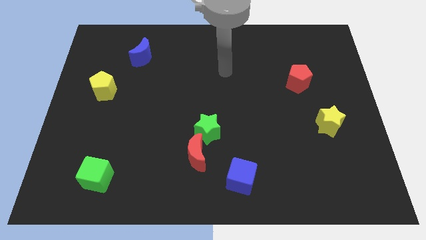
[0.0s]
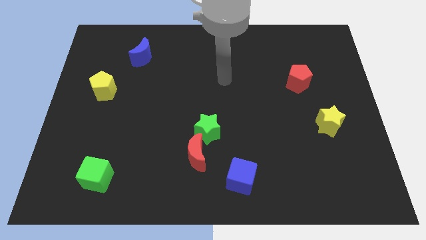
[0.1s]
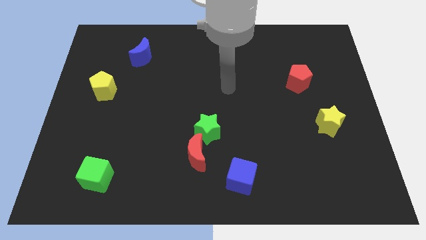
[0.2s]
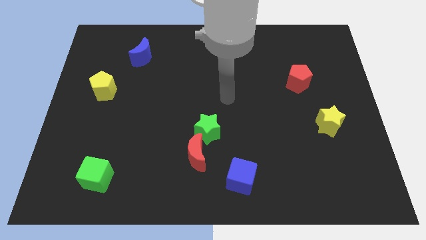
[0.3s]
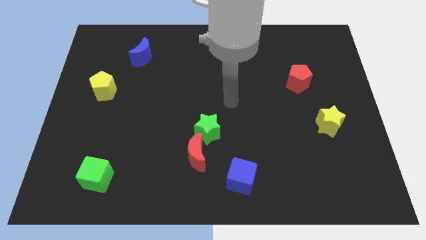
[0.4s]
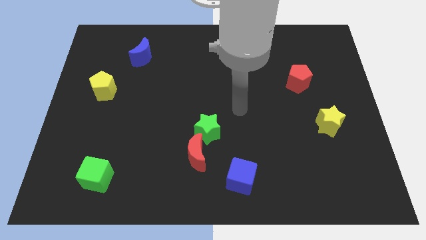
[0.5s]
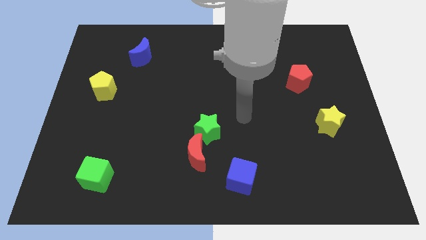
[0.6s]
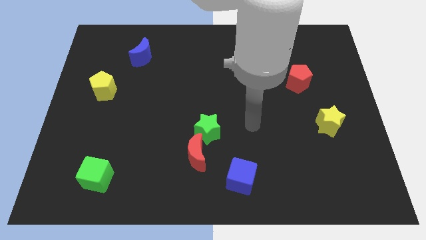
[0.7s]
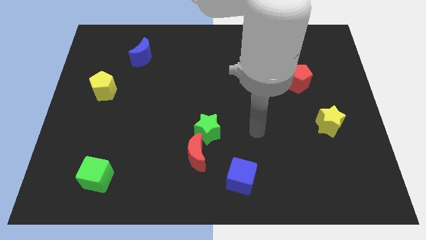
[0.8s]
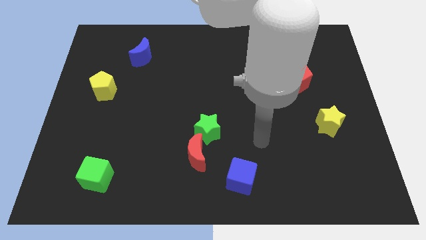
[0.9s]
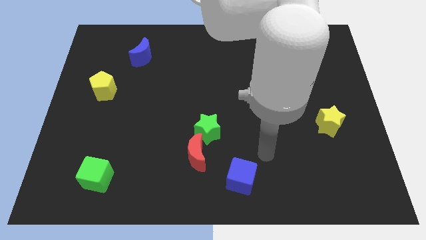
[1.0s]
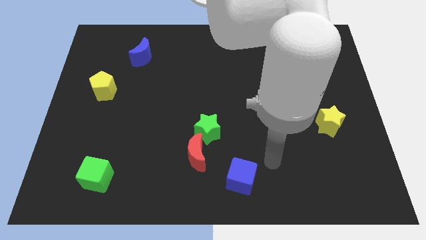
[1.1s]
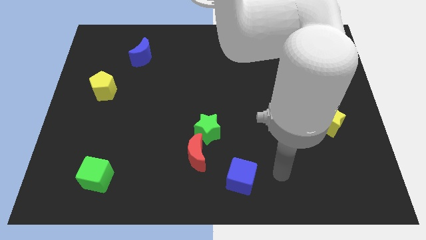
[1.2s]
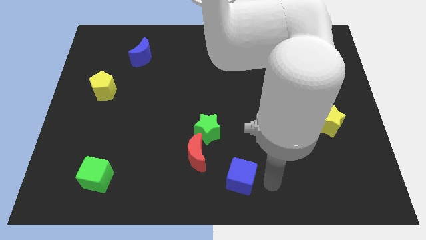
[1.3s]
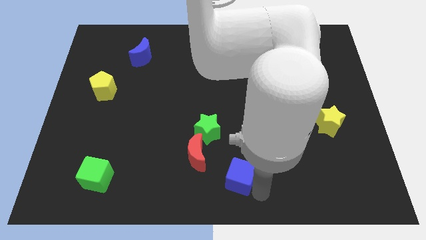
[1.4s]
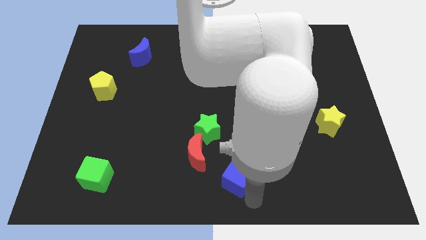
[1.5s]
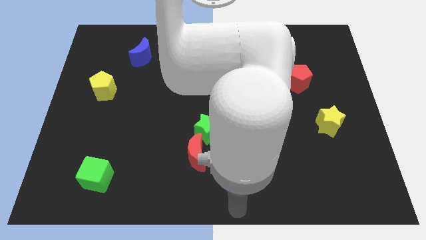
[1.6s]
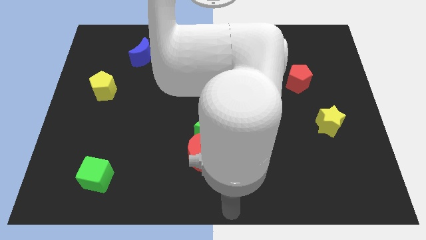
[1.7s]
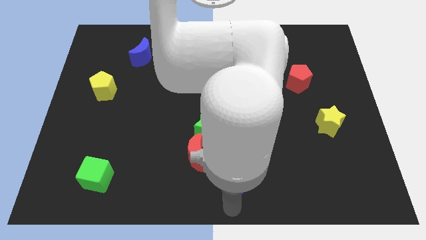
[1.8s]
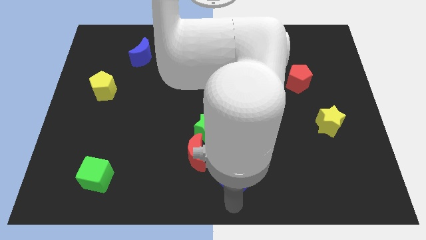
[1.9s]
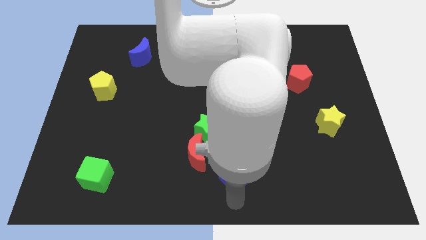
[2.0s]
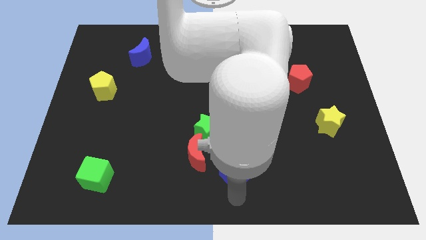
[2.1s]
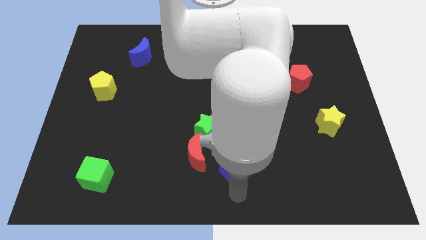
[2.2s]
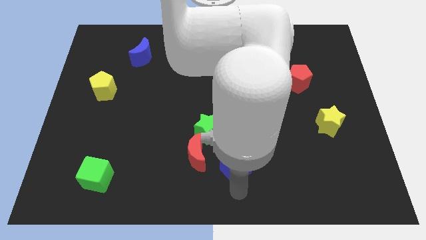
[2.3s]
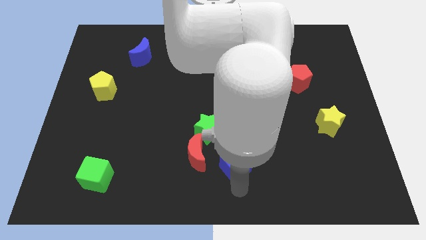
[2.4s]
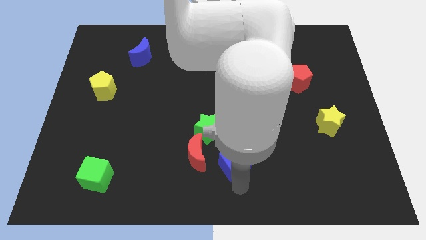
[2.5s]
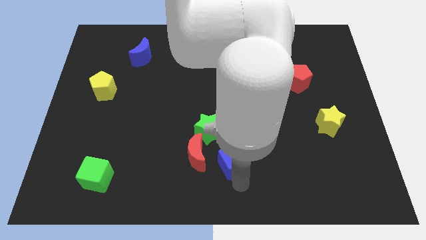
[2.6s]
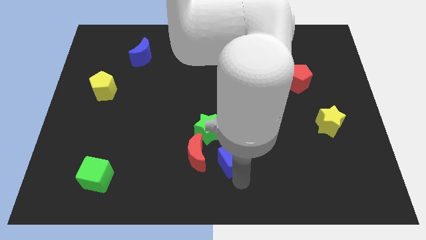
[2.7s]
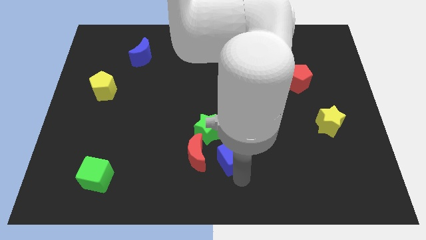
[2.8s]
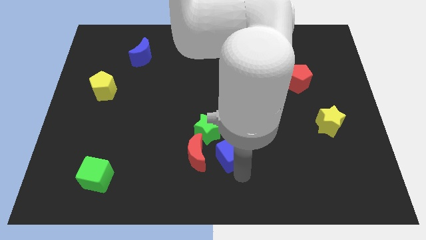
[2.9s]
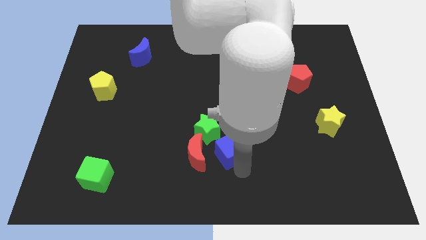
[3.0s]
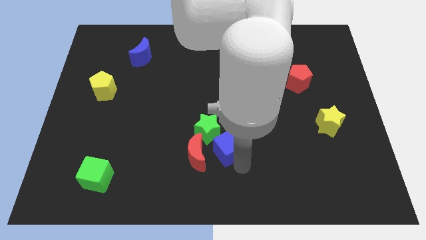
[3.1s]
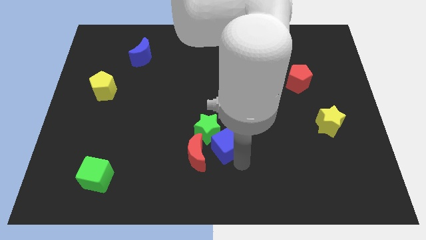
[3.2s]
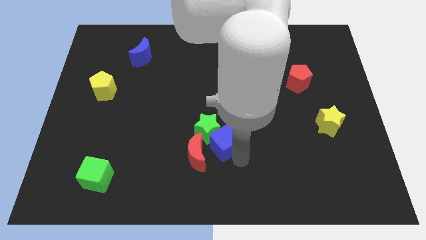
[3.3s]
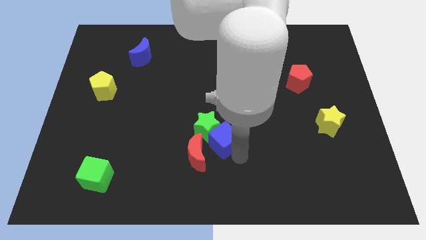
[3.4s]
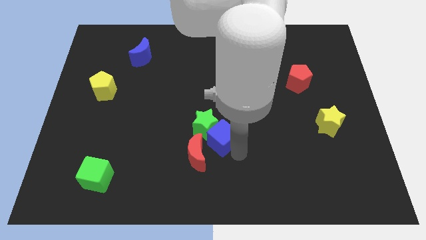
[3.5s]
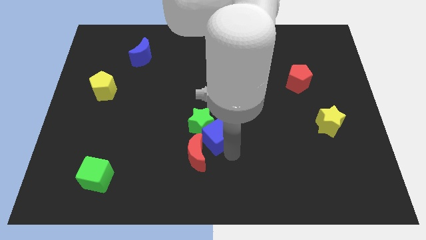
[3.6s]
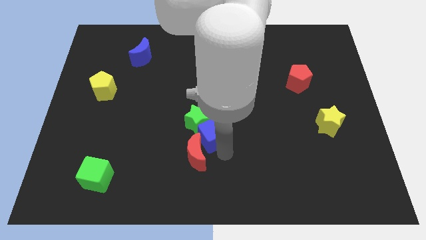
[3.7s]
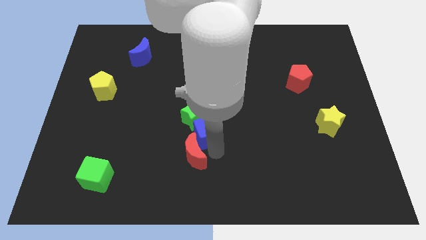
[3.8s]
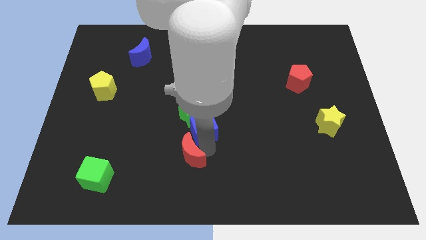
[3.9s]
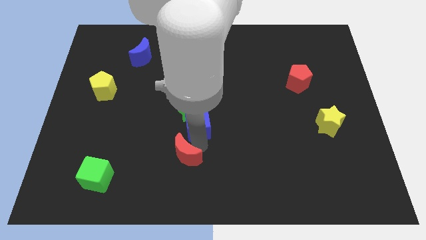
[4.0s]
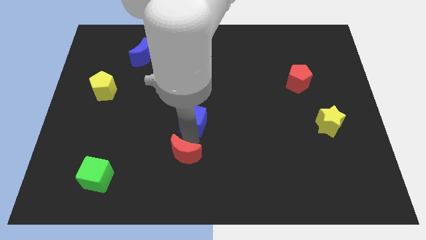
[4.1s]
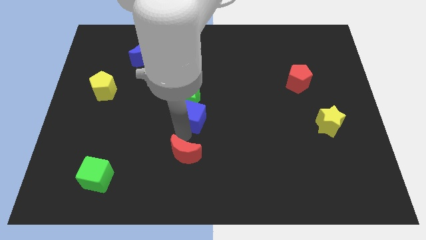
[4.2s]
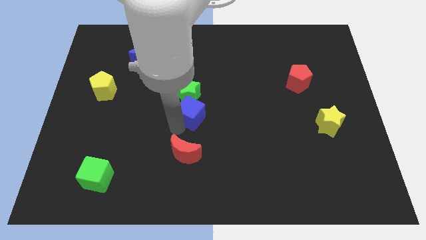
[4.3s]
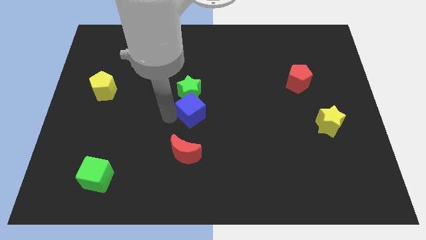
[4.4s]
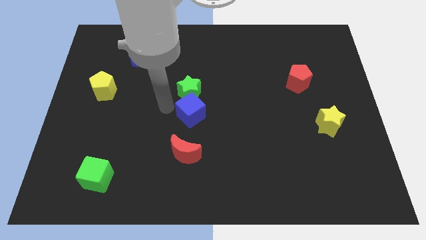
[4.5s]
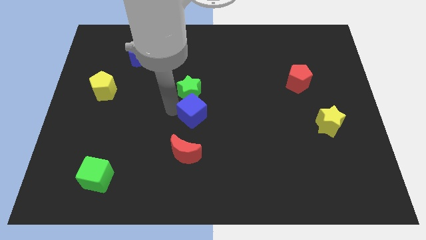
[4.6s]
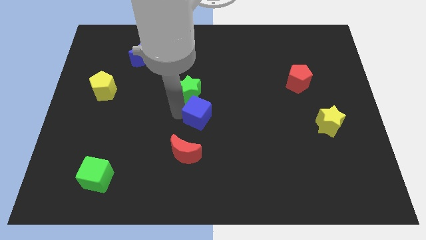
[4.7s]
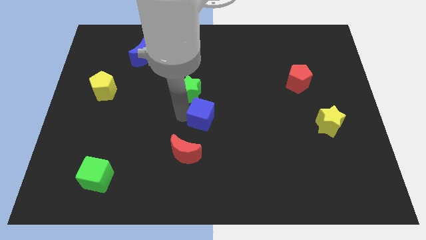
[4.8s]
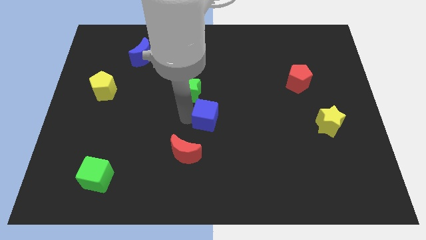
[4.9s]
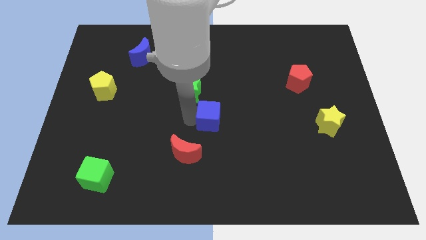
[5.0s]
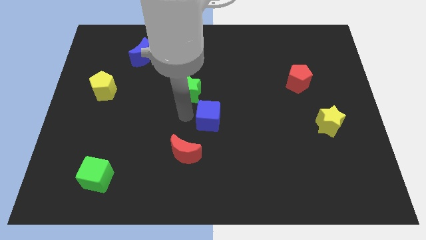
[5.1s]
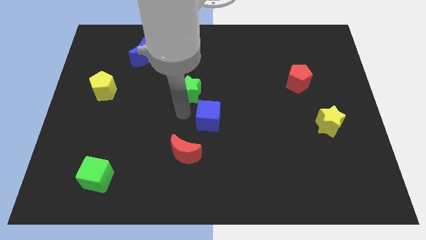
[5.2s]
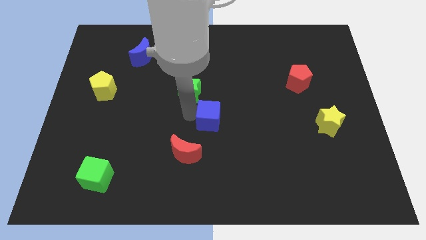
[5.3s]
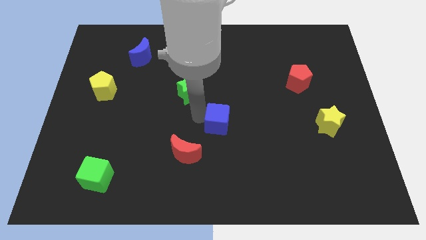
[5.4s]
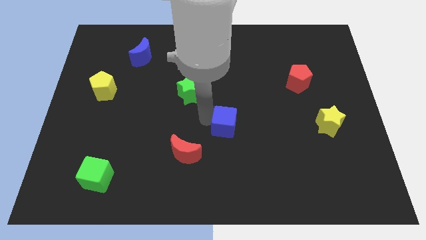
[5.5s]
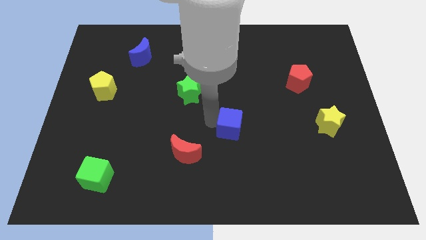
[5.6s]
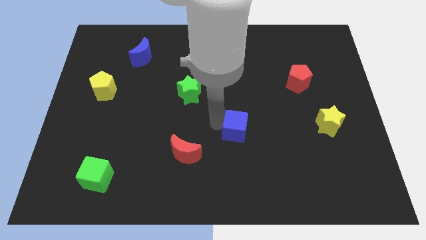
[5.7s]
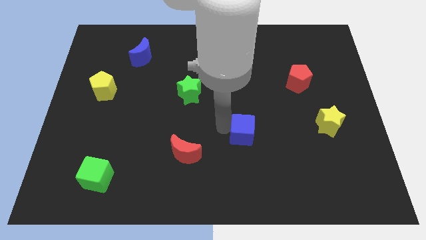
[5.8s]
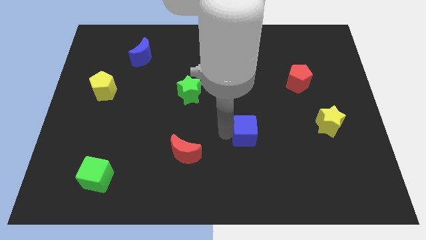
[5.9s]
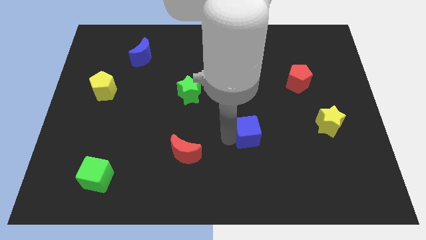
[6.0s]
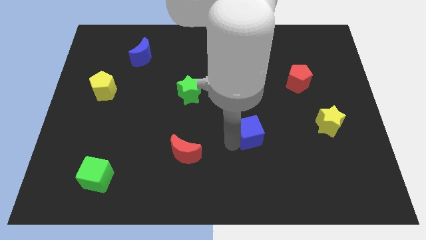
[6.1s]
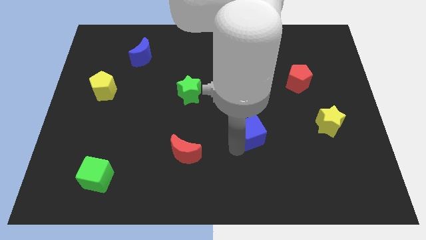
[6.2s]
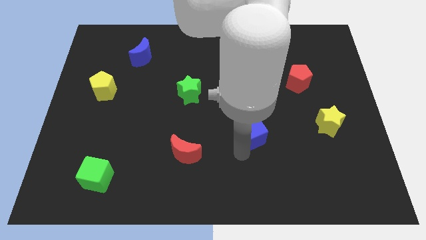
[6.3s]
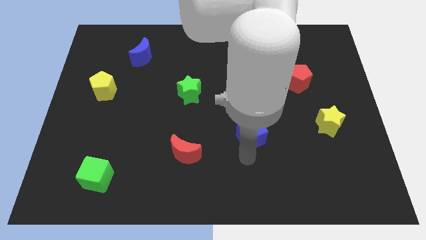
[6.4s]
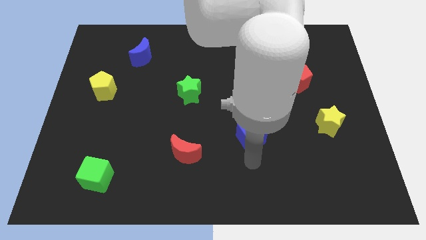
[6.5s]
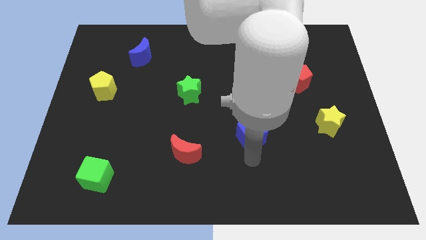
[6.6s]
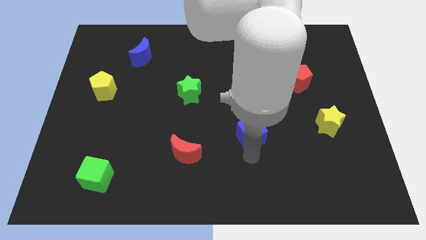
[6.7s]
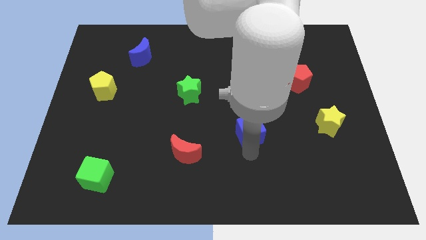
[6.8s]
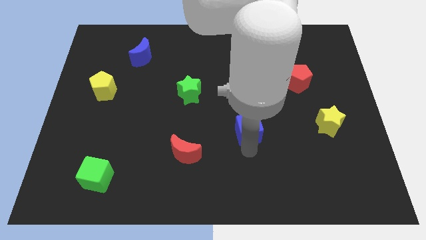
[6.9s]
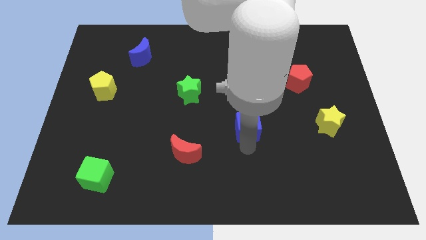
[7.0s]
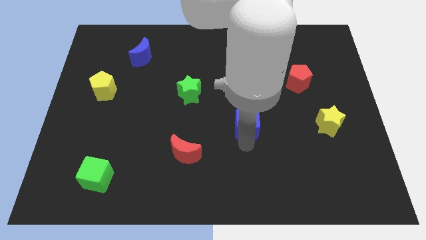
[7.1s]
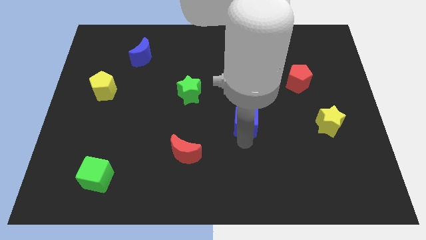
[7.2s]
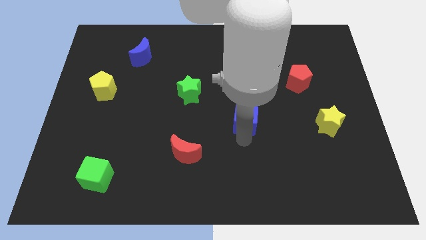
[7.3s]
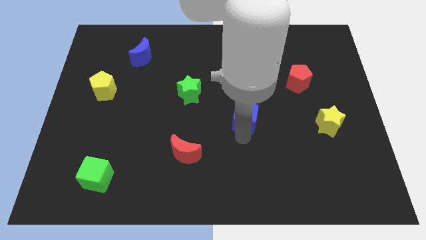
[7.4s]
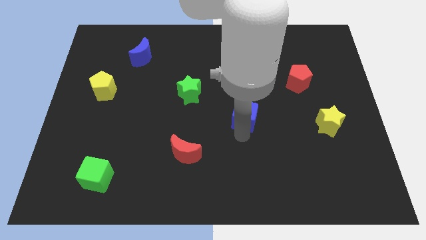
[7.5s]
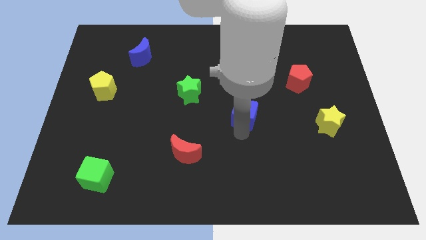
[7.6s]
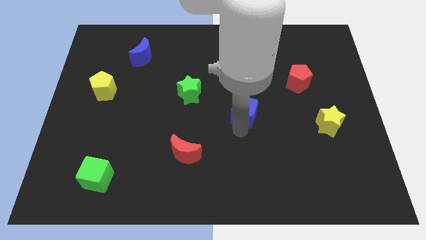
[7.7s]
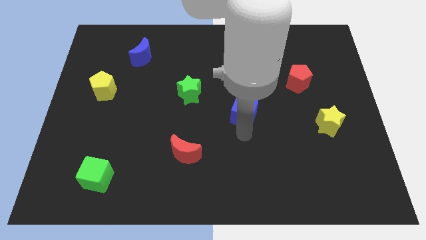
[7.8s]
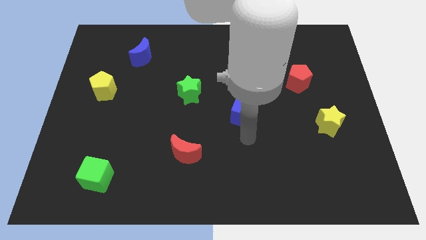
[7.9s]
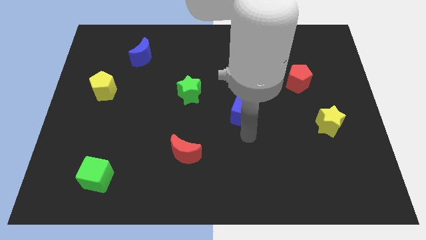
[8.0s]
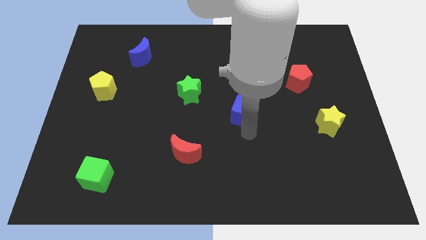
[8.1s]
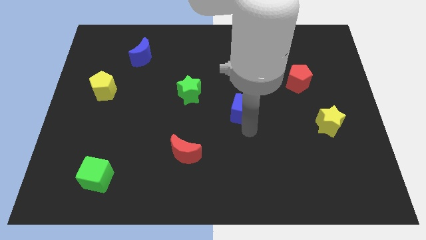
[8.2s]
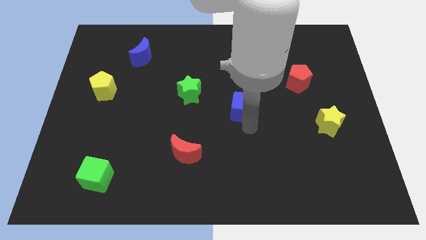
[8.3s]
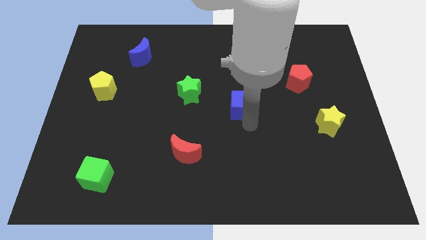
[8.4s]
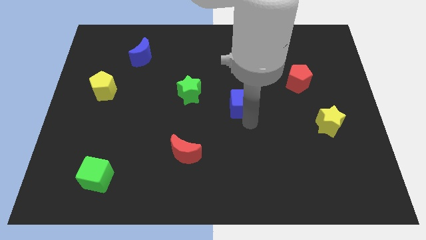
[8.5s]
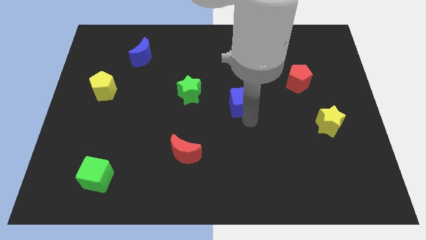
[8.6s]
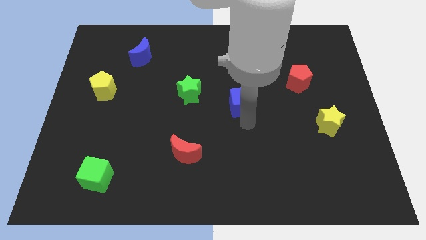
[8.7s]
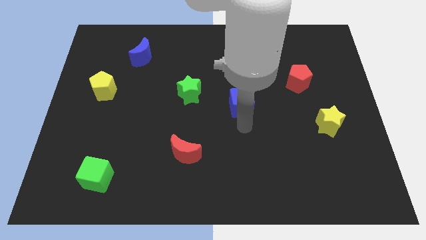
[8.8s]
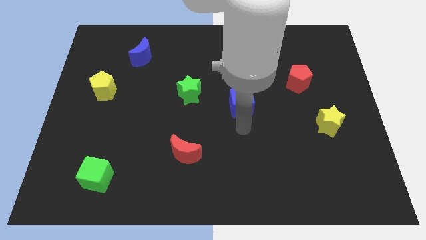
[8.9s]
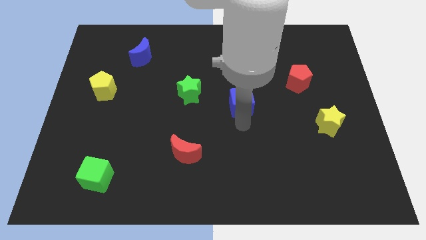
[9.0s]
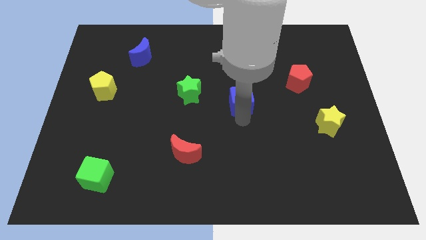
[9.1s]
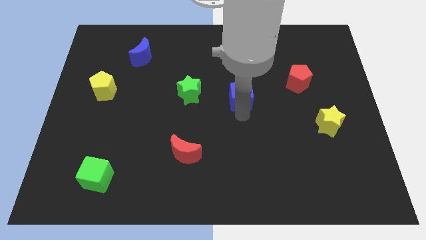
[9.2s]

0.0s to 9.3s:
slide the blue cube upwards
